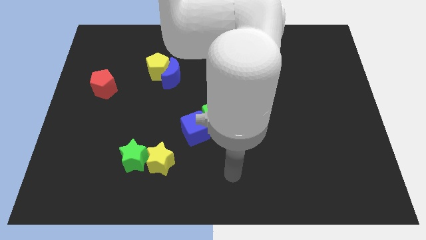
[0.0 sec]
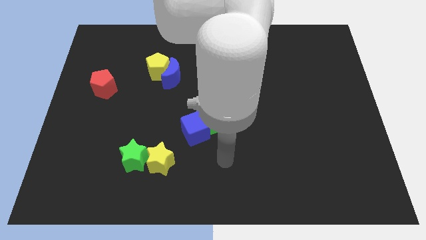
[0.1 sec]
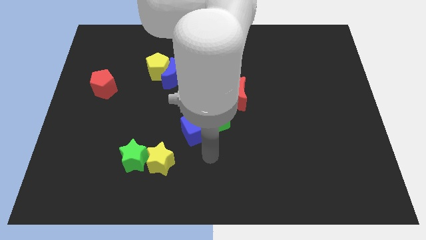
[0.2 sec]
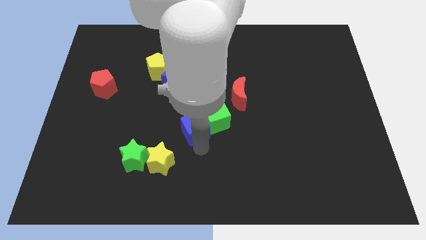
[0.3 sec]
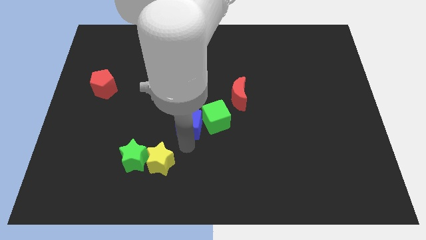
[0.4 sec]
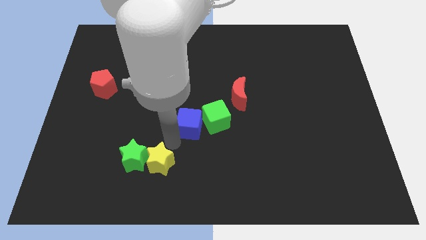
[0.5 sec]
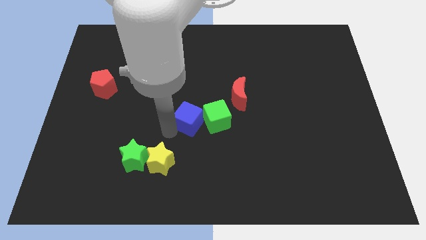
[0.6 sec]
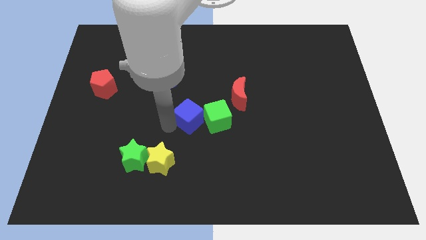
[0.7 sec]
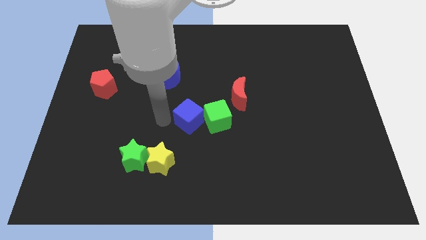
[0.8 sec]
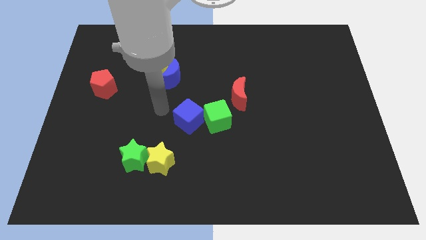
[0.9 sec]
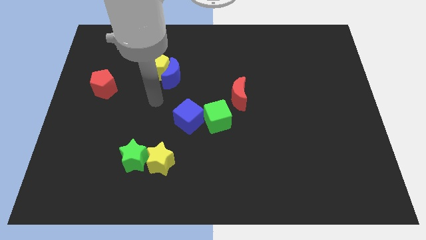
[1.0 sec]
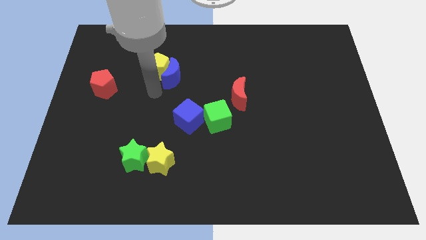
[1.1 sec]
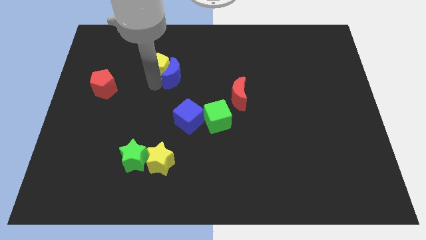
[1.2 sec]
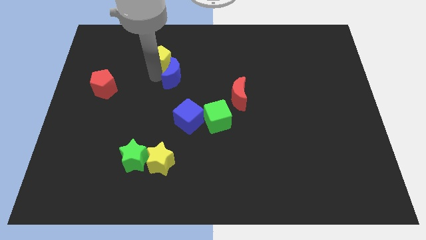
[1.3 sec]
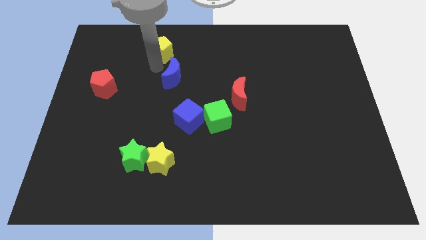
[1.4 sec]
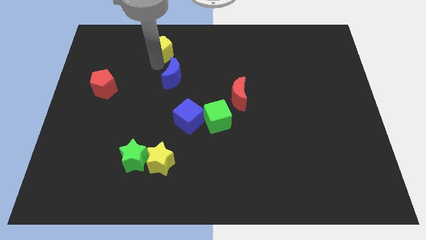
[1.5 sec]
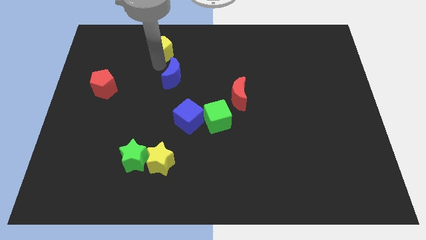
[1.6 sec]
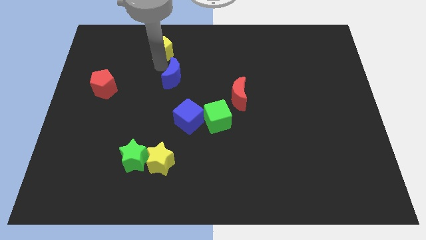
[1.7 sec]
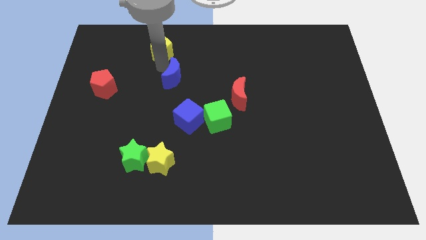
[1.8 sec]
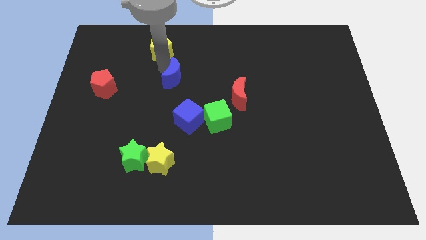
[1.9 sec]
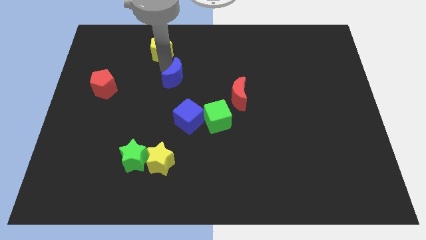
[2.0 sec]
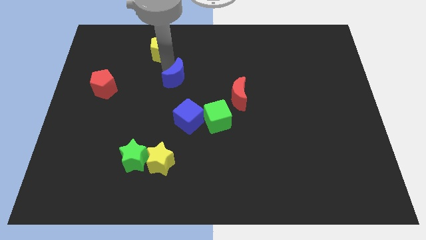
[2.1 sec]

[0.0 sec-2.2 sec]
move the blue moon away from the yellow pentagon

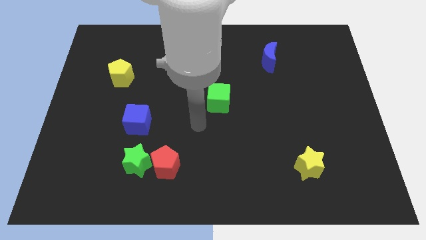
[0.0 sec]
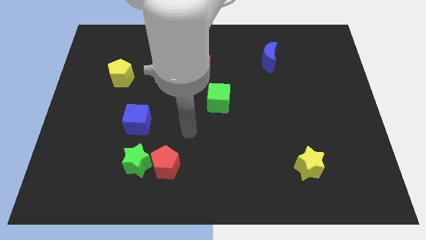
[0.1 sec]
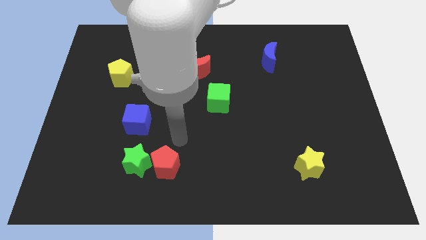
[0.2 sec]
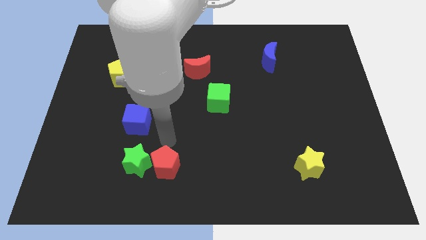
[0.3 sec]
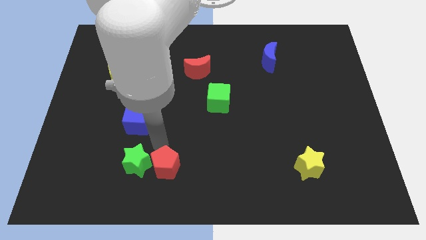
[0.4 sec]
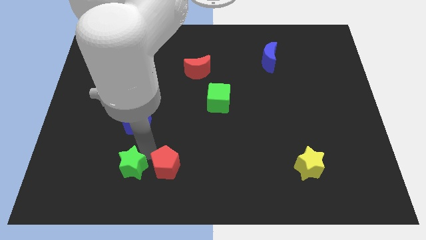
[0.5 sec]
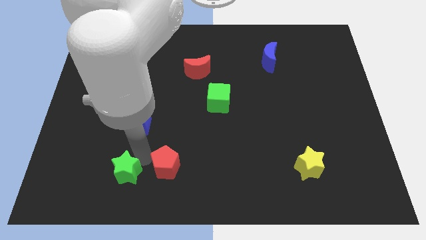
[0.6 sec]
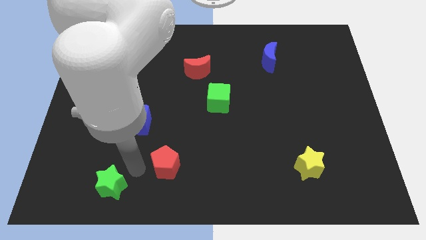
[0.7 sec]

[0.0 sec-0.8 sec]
move the red pentagon away from the green star

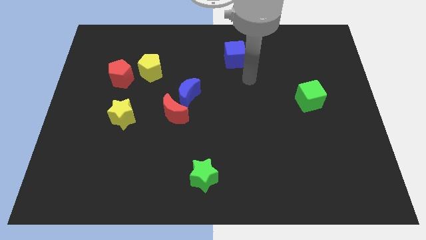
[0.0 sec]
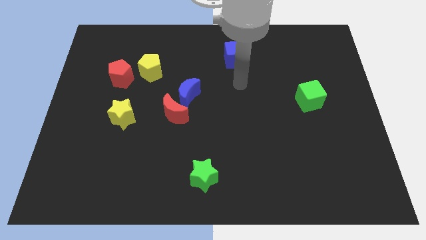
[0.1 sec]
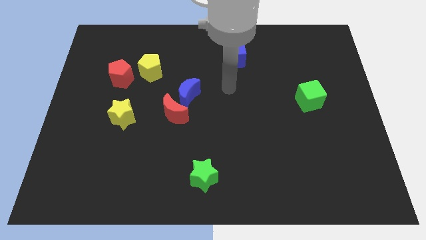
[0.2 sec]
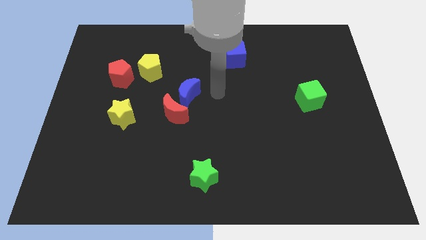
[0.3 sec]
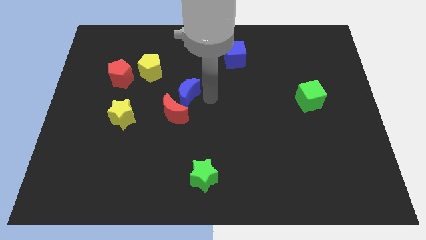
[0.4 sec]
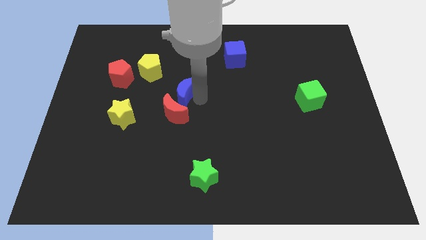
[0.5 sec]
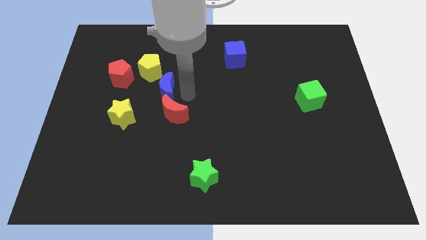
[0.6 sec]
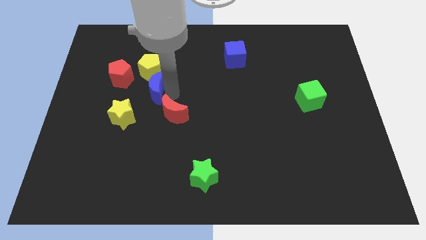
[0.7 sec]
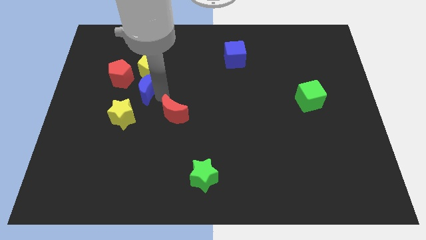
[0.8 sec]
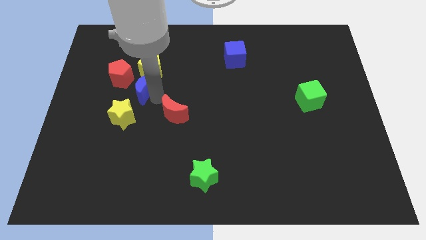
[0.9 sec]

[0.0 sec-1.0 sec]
move the red moon away from the blue moon

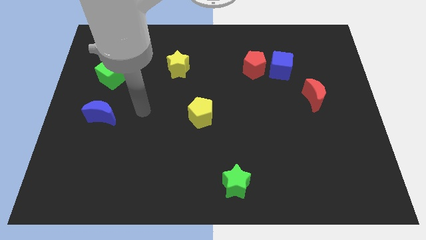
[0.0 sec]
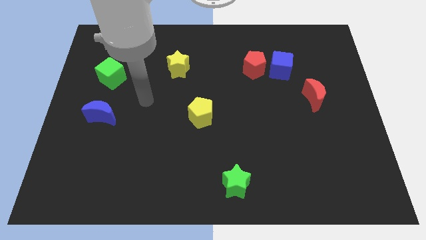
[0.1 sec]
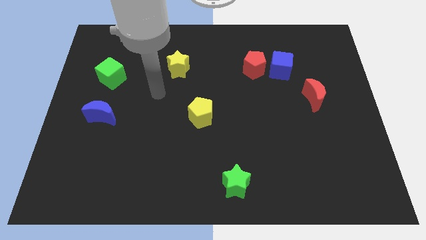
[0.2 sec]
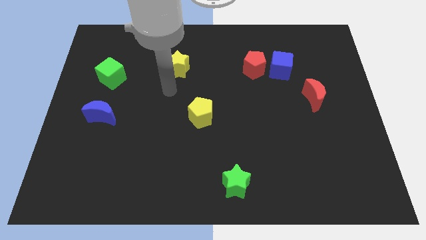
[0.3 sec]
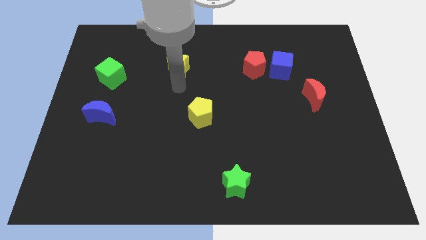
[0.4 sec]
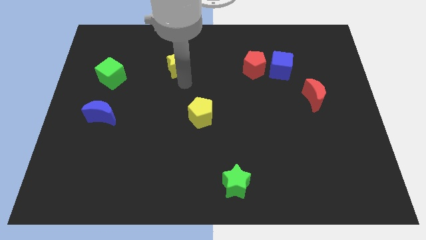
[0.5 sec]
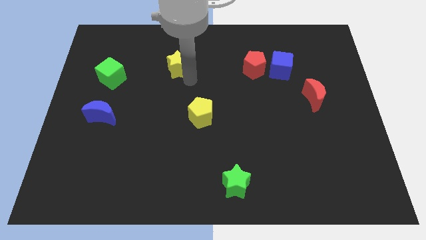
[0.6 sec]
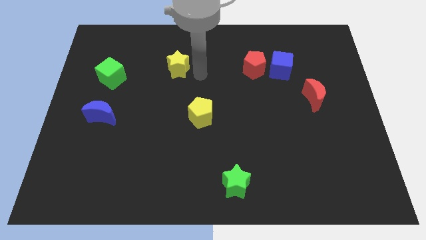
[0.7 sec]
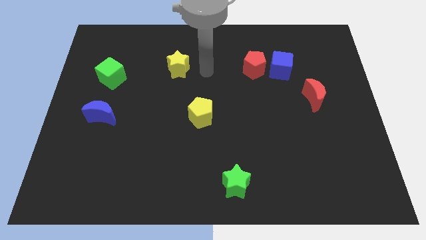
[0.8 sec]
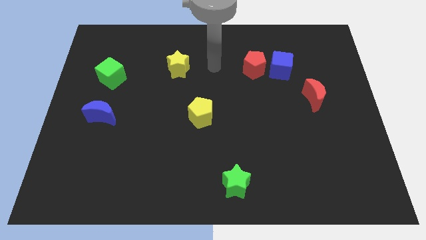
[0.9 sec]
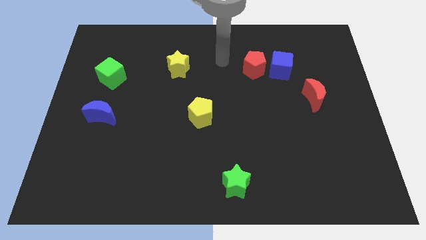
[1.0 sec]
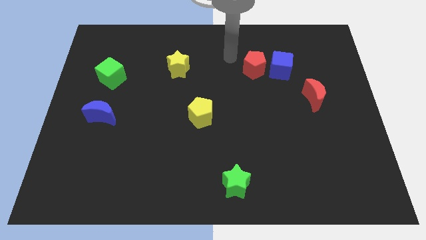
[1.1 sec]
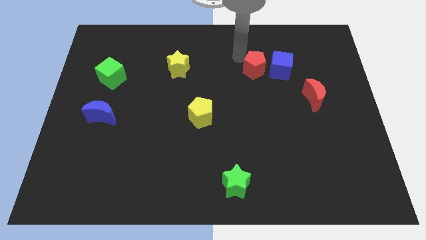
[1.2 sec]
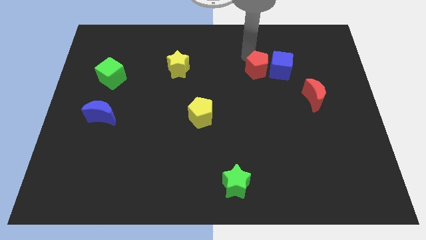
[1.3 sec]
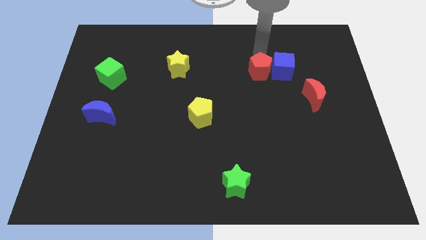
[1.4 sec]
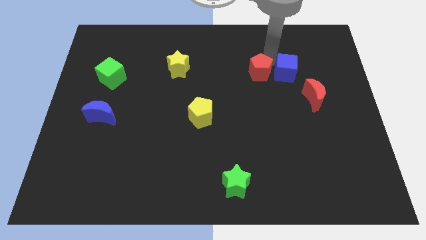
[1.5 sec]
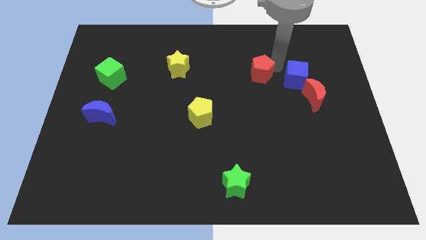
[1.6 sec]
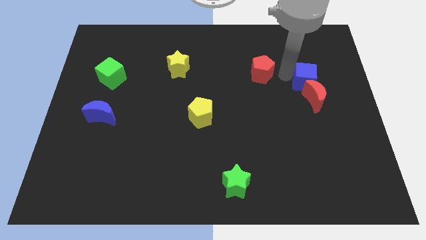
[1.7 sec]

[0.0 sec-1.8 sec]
separate the red pentagon from the blue cube

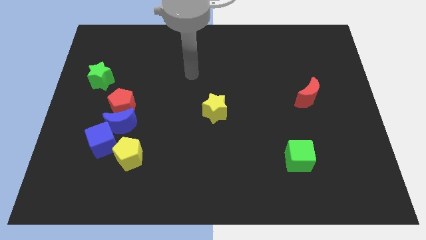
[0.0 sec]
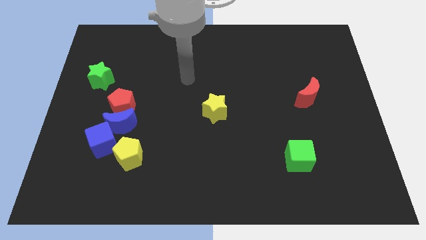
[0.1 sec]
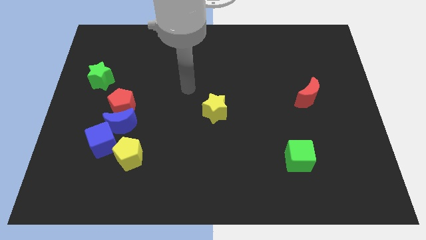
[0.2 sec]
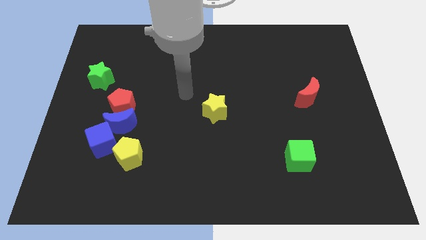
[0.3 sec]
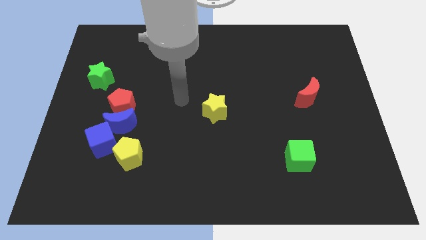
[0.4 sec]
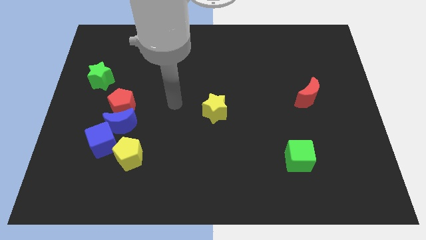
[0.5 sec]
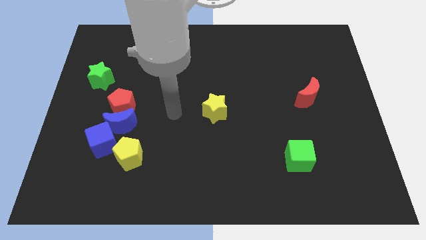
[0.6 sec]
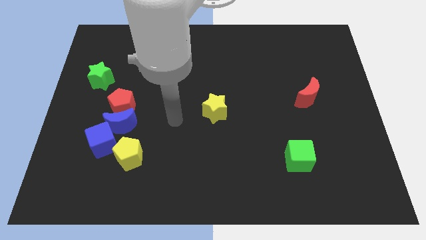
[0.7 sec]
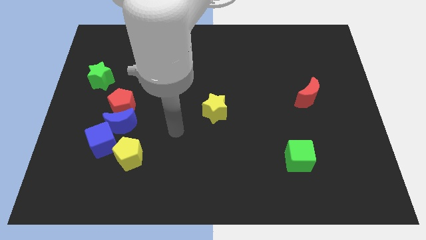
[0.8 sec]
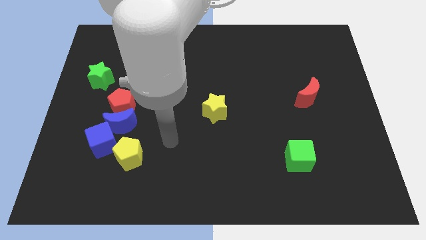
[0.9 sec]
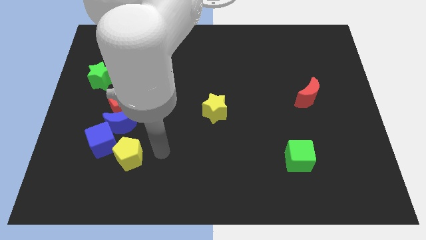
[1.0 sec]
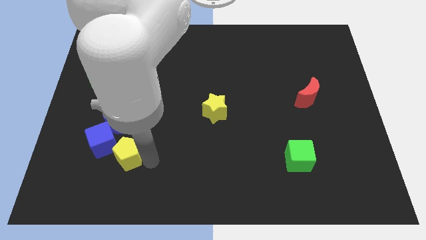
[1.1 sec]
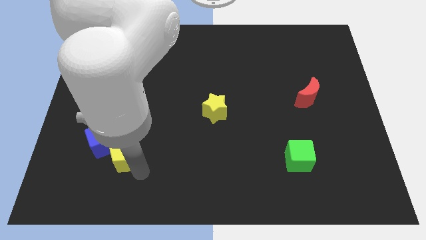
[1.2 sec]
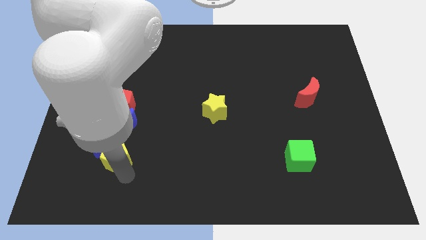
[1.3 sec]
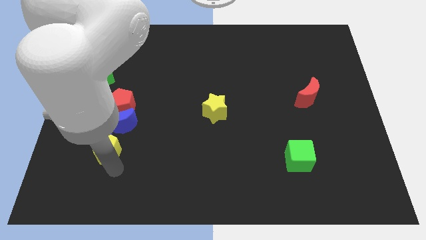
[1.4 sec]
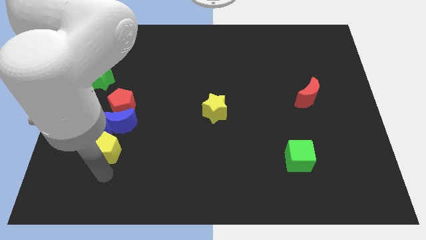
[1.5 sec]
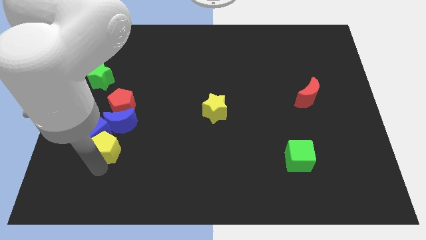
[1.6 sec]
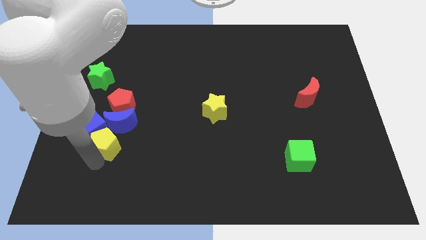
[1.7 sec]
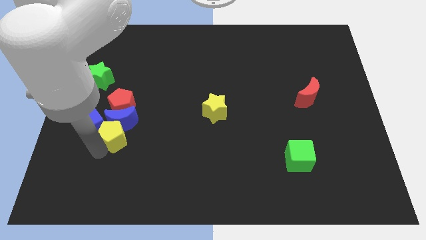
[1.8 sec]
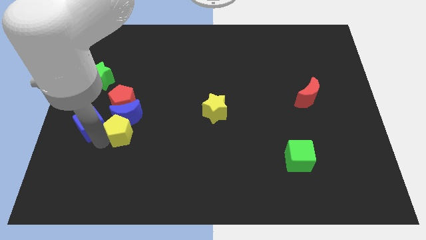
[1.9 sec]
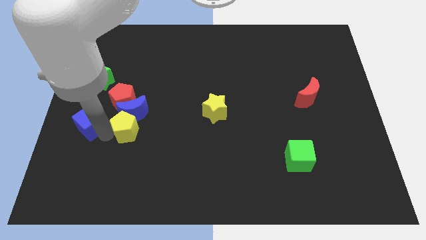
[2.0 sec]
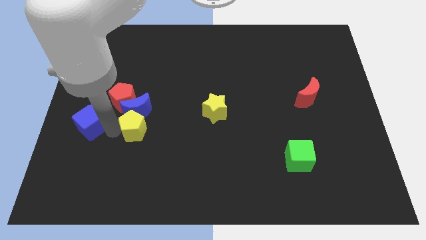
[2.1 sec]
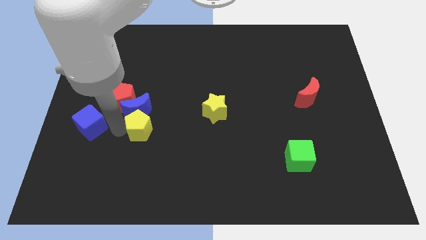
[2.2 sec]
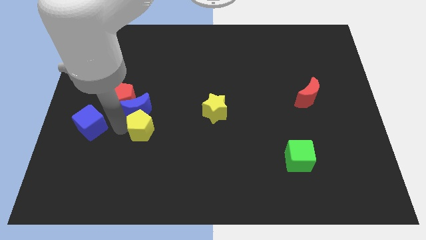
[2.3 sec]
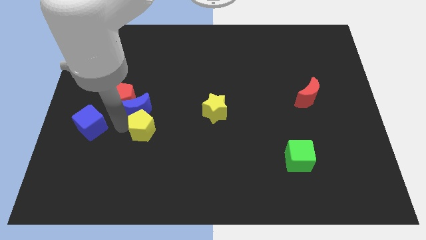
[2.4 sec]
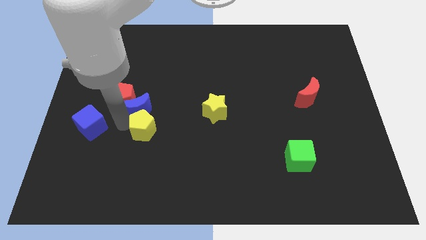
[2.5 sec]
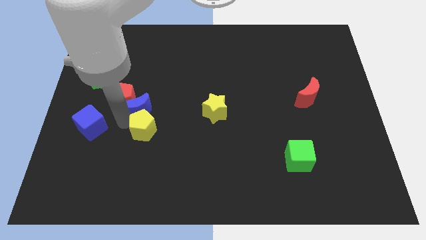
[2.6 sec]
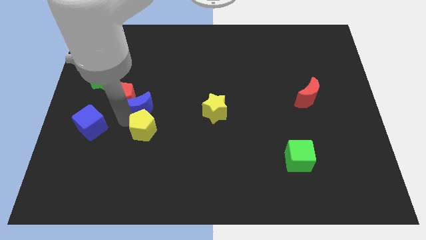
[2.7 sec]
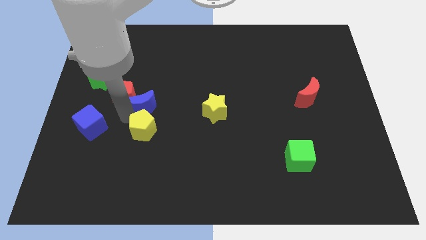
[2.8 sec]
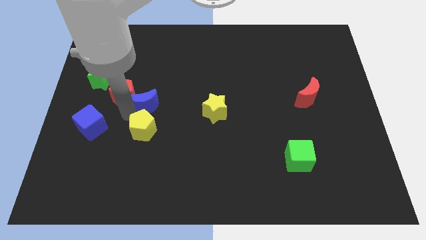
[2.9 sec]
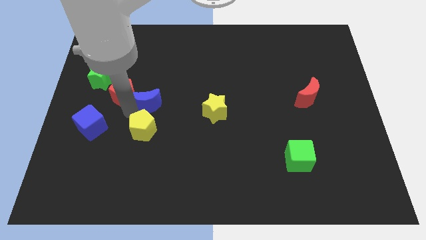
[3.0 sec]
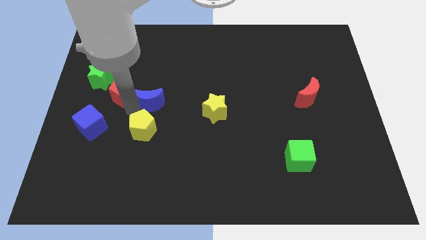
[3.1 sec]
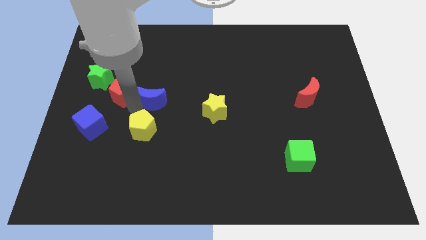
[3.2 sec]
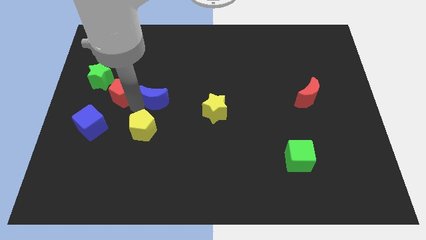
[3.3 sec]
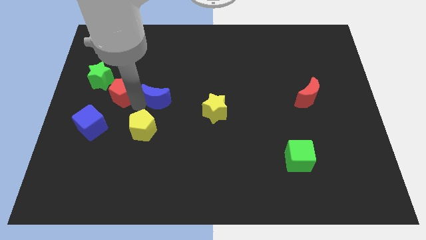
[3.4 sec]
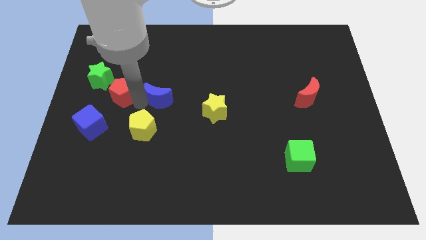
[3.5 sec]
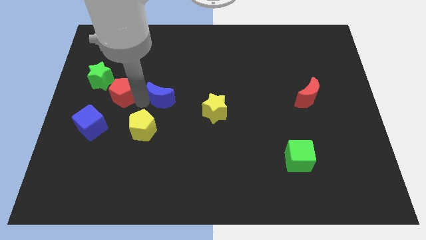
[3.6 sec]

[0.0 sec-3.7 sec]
separate the blue moon from the clump
